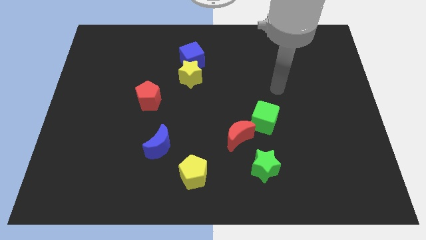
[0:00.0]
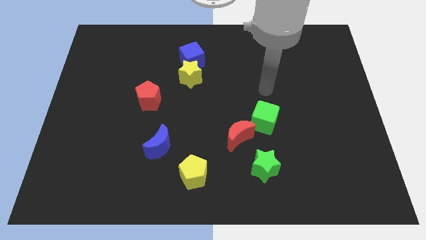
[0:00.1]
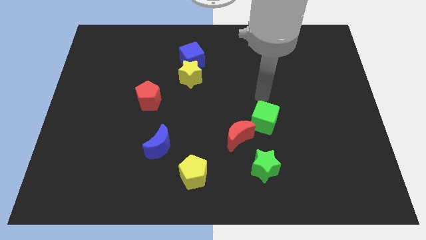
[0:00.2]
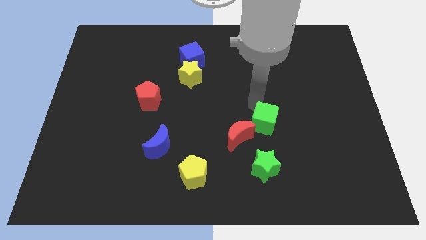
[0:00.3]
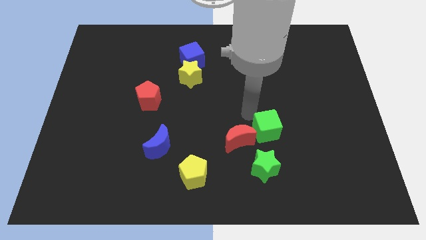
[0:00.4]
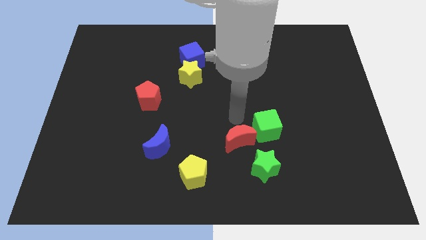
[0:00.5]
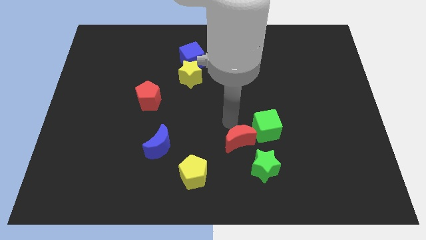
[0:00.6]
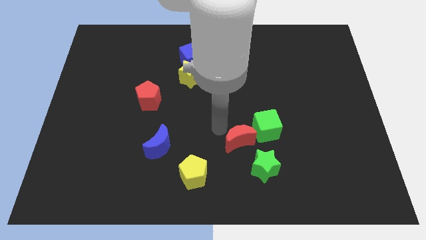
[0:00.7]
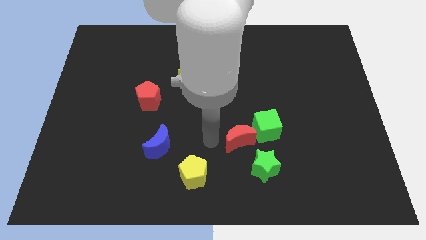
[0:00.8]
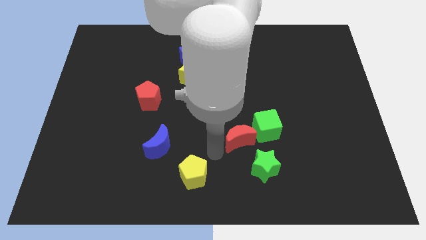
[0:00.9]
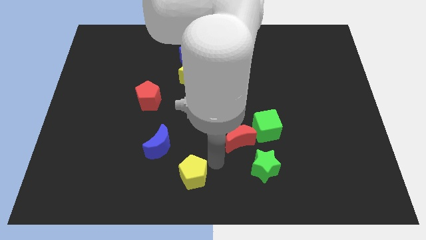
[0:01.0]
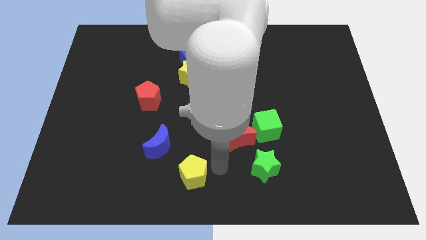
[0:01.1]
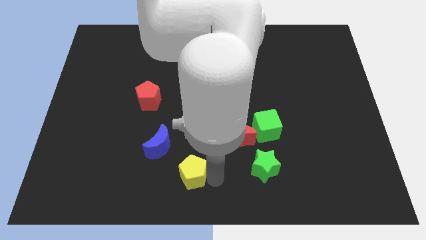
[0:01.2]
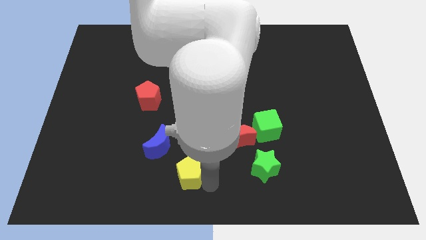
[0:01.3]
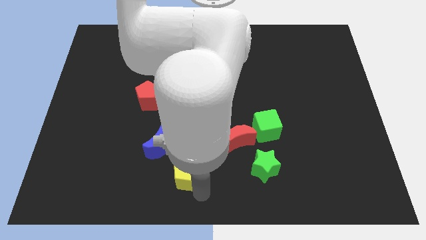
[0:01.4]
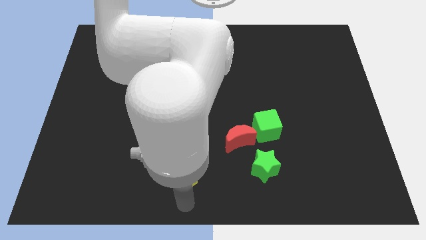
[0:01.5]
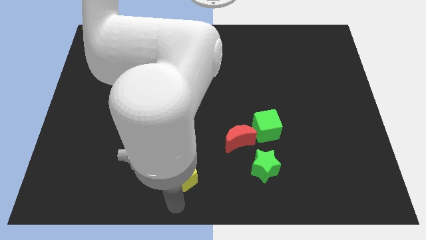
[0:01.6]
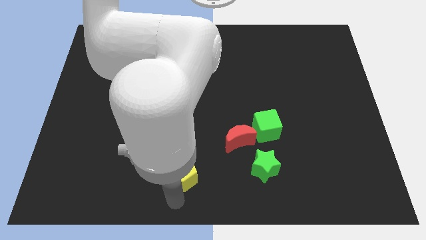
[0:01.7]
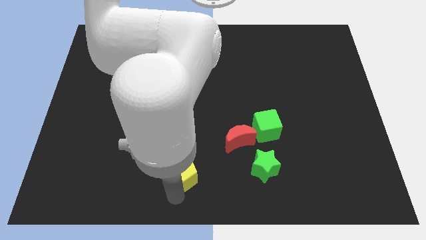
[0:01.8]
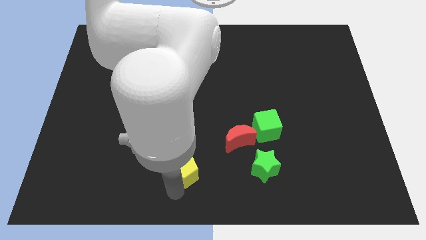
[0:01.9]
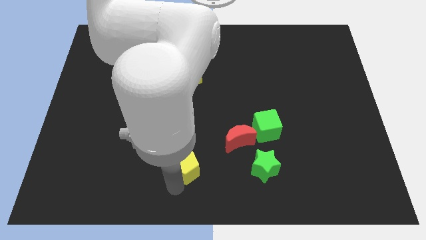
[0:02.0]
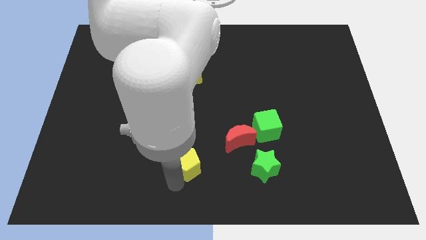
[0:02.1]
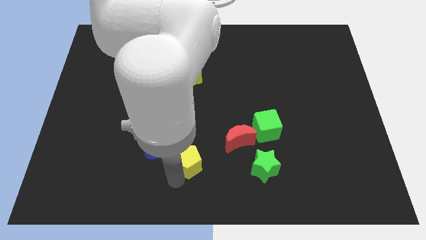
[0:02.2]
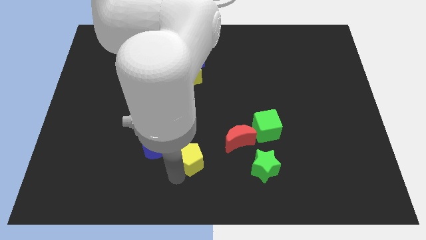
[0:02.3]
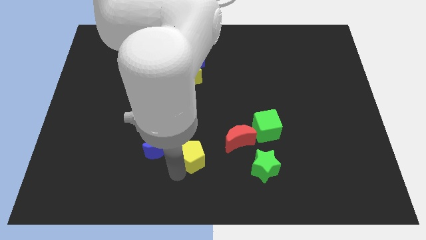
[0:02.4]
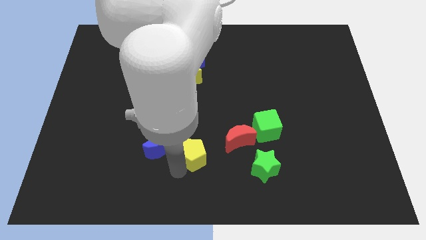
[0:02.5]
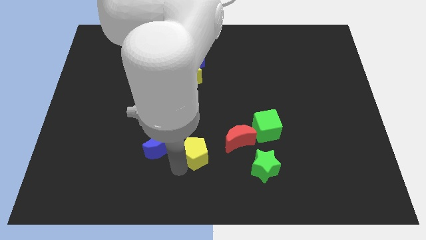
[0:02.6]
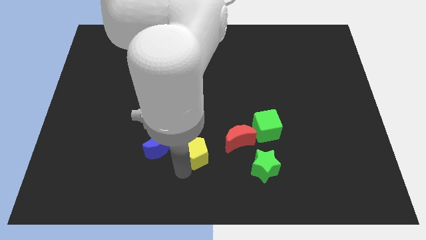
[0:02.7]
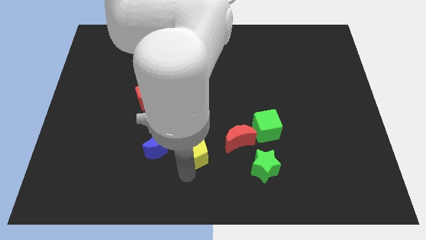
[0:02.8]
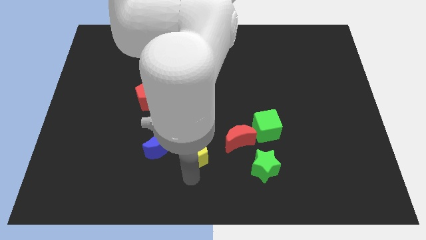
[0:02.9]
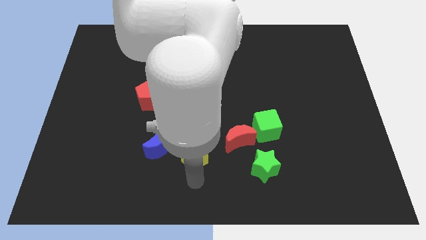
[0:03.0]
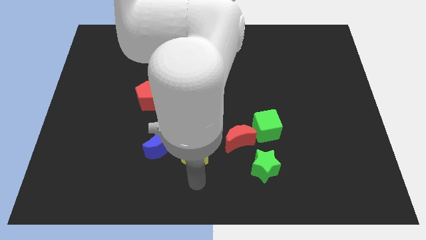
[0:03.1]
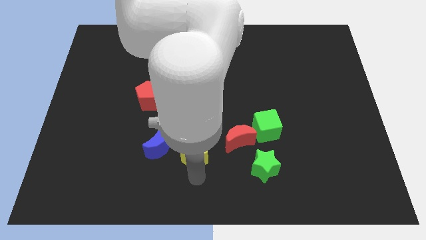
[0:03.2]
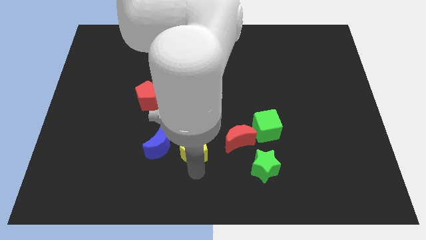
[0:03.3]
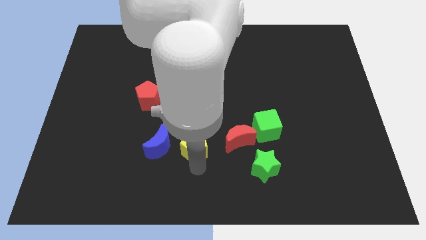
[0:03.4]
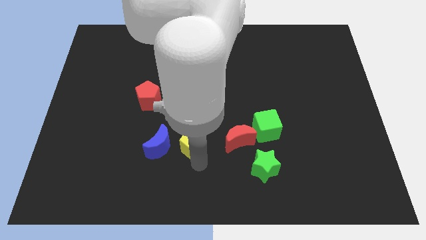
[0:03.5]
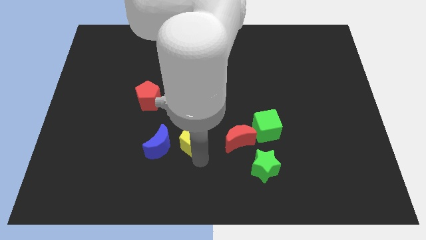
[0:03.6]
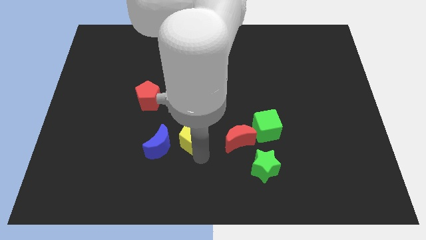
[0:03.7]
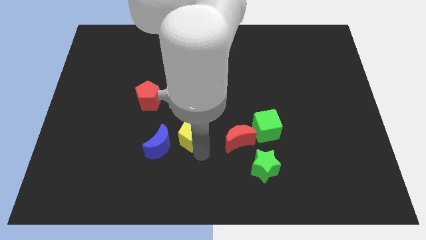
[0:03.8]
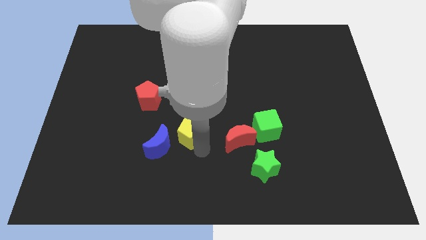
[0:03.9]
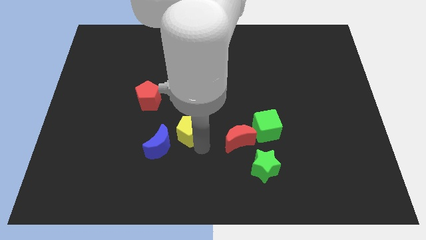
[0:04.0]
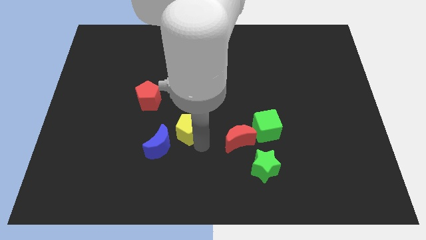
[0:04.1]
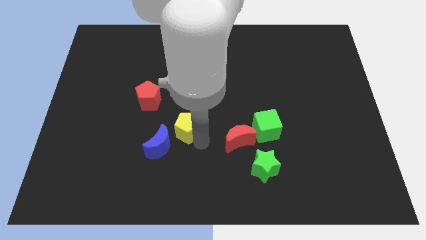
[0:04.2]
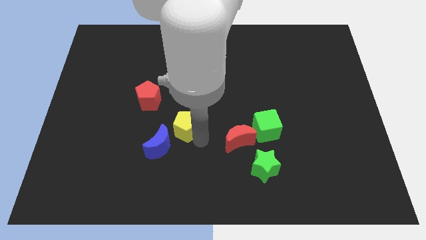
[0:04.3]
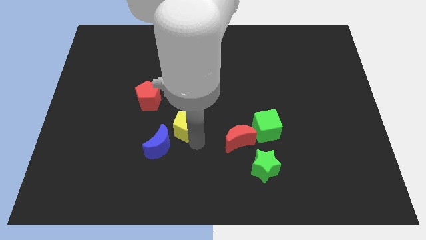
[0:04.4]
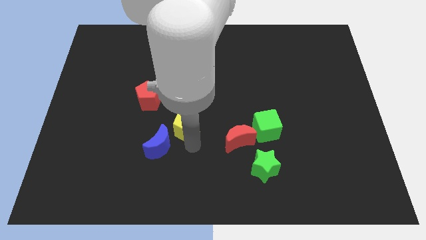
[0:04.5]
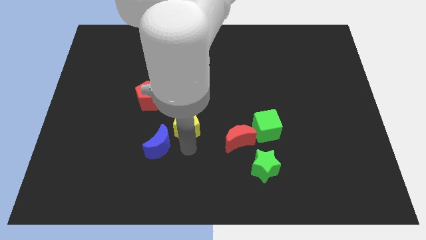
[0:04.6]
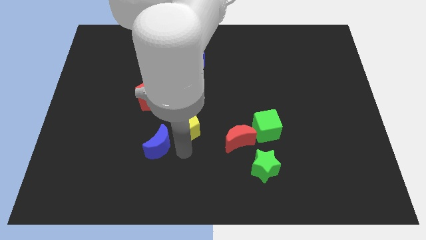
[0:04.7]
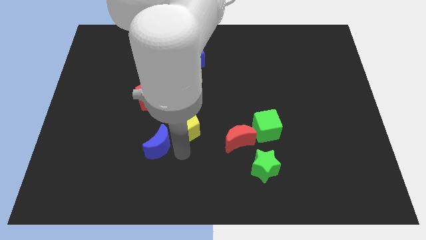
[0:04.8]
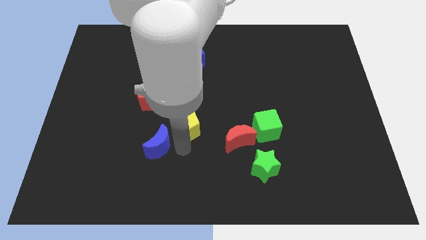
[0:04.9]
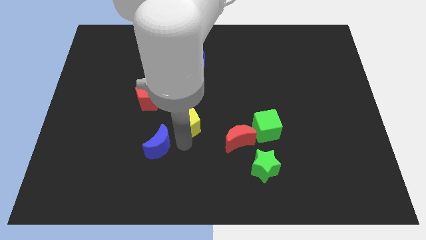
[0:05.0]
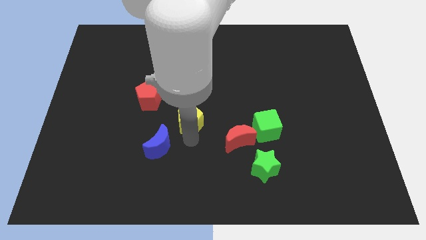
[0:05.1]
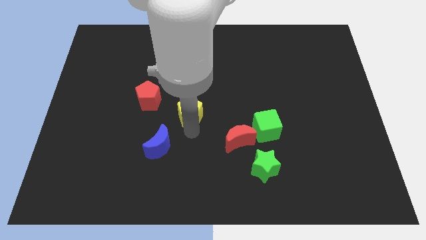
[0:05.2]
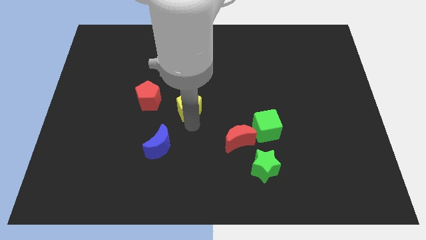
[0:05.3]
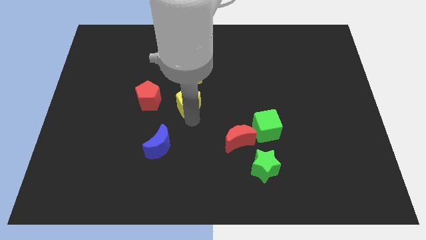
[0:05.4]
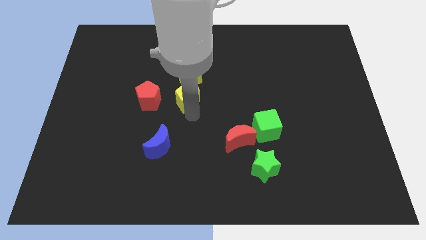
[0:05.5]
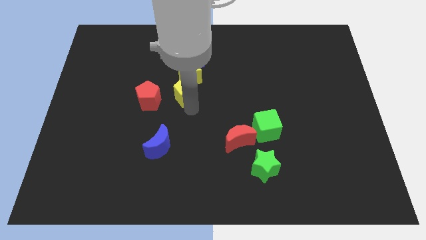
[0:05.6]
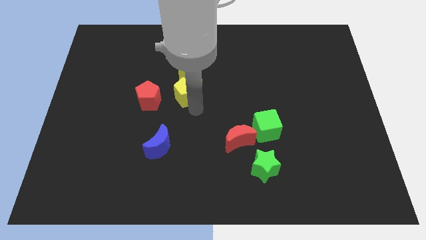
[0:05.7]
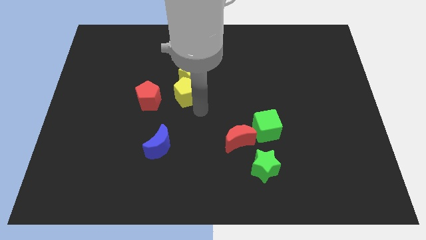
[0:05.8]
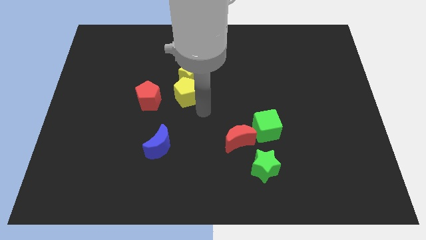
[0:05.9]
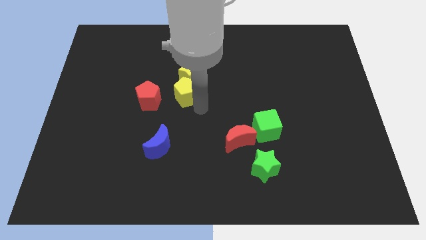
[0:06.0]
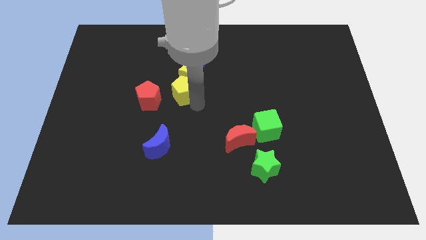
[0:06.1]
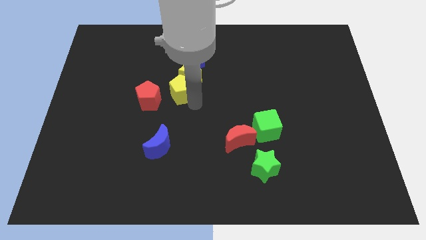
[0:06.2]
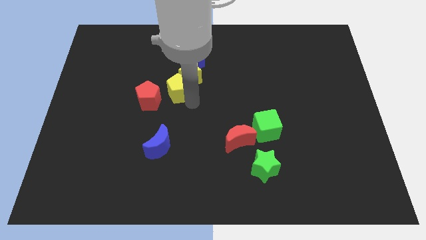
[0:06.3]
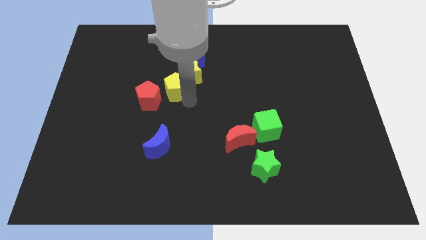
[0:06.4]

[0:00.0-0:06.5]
move the yellow pentagon diagonally down and to the left of the blue cube

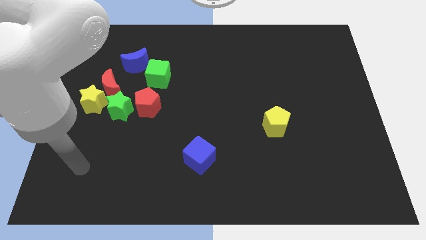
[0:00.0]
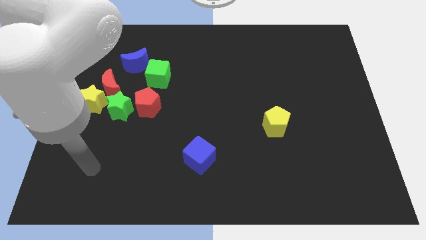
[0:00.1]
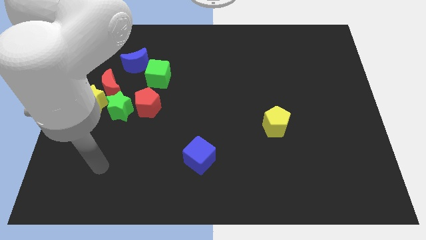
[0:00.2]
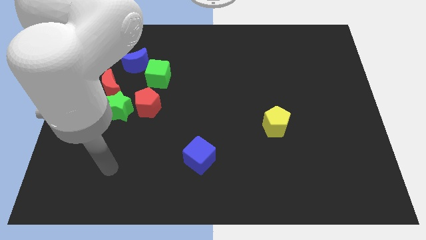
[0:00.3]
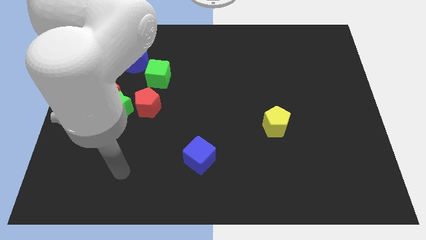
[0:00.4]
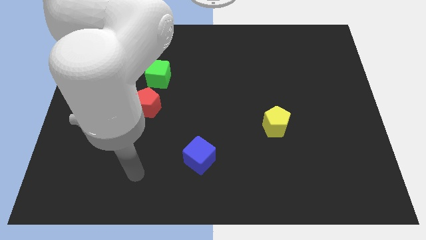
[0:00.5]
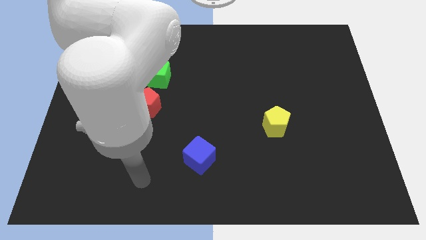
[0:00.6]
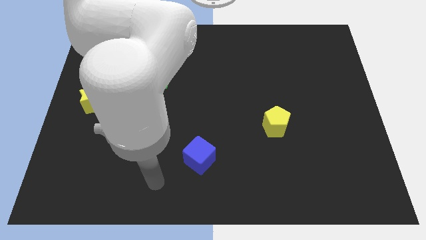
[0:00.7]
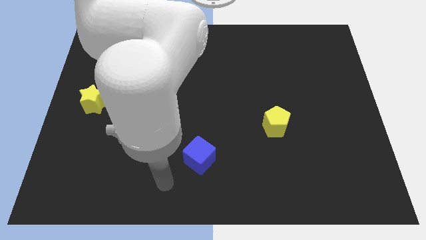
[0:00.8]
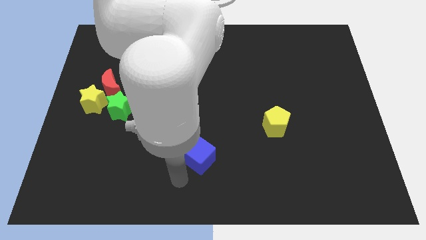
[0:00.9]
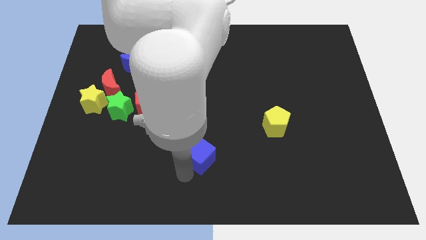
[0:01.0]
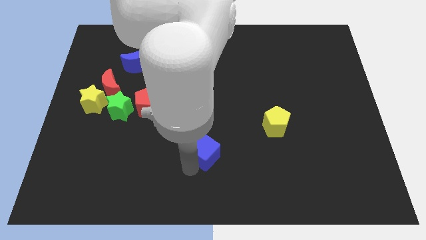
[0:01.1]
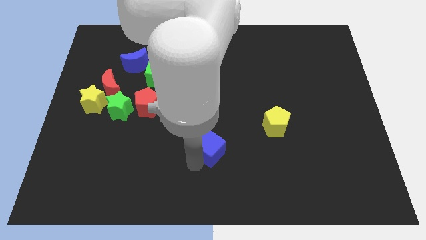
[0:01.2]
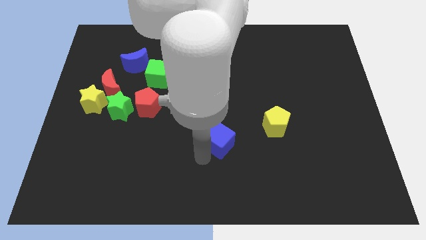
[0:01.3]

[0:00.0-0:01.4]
slide the blue cube to the left of the yellow pentagon

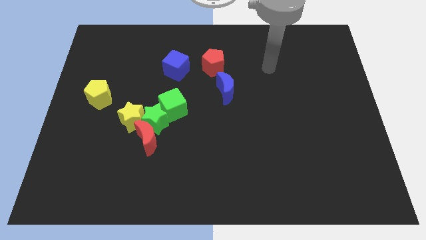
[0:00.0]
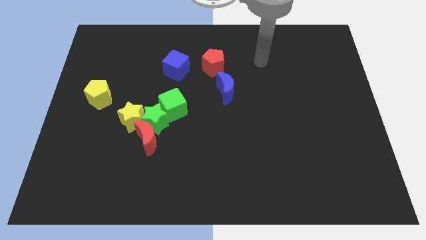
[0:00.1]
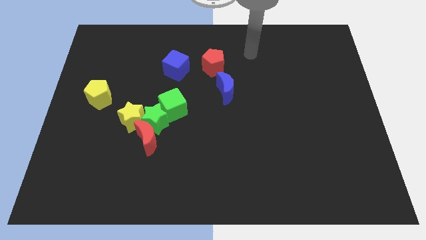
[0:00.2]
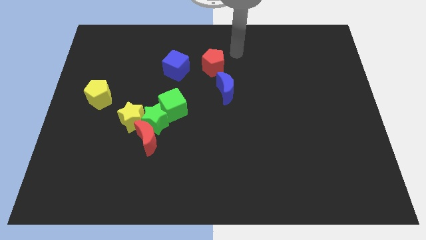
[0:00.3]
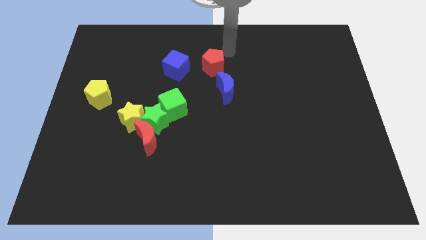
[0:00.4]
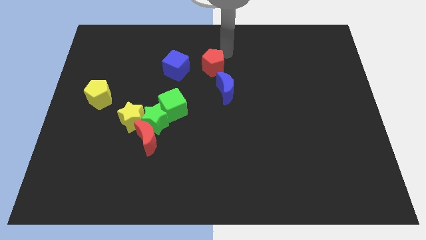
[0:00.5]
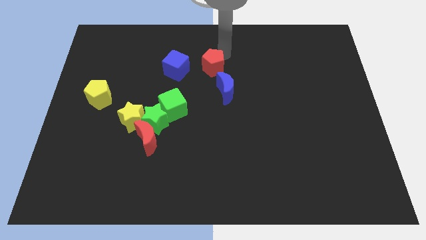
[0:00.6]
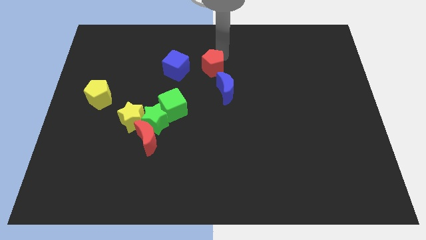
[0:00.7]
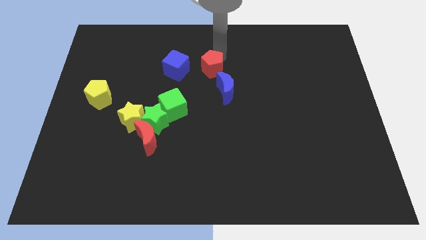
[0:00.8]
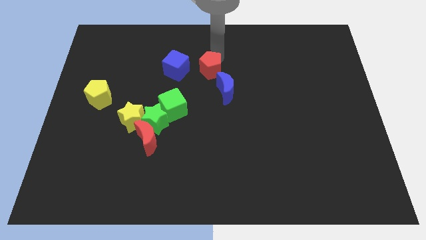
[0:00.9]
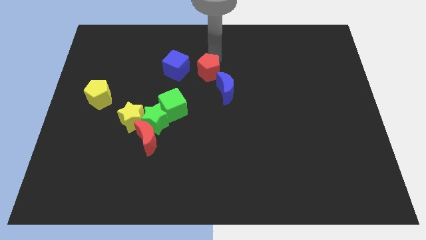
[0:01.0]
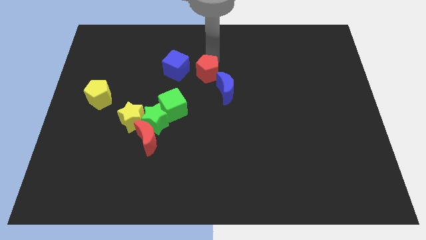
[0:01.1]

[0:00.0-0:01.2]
slide the red pentagon diagonally down and to the right of the blue cube
